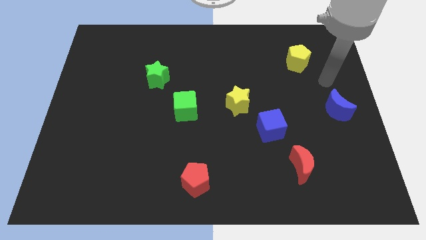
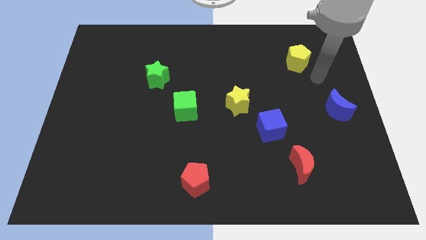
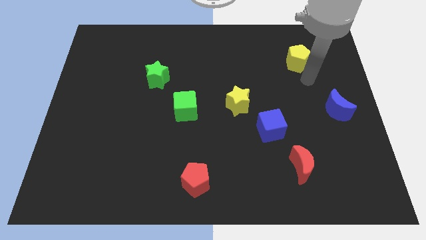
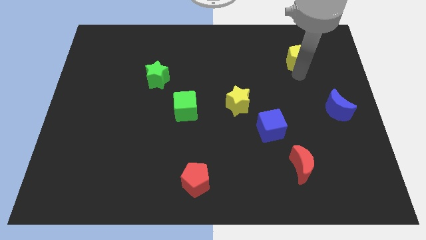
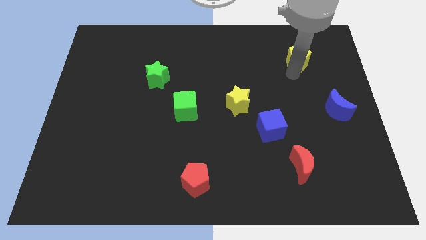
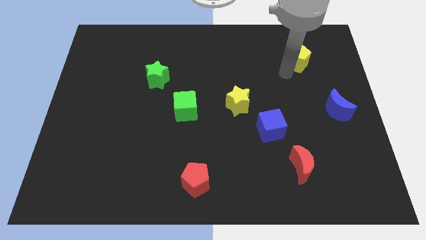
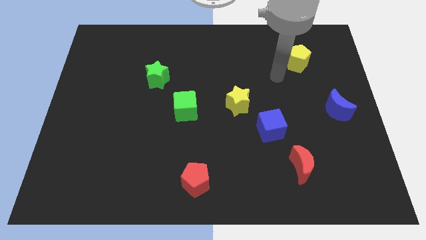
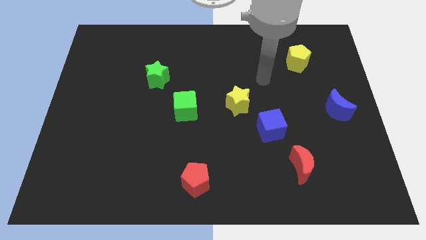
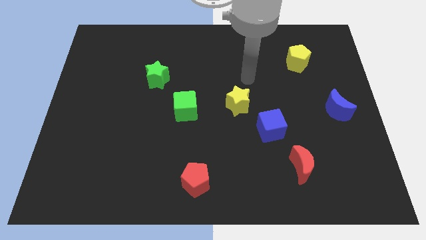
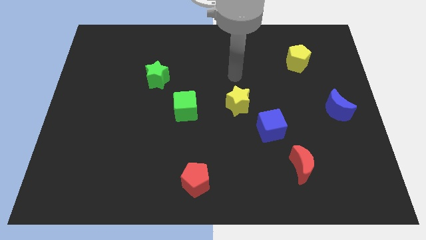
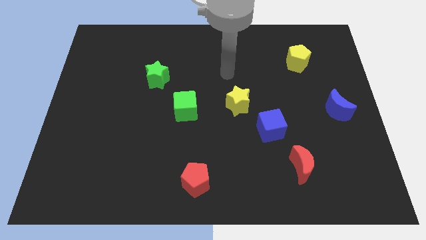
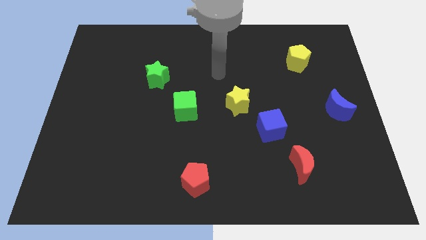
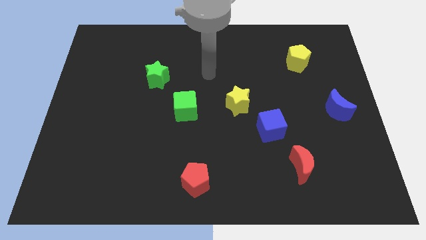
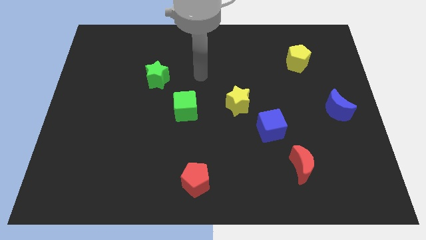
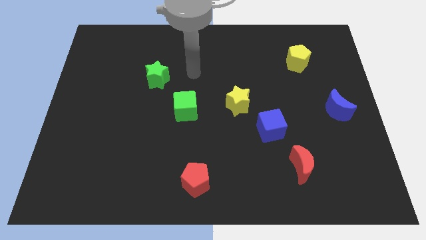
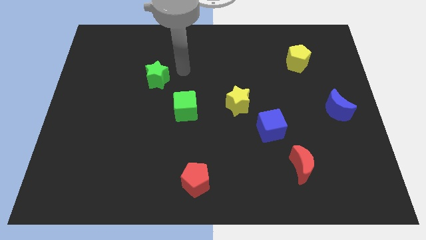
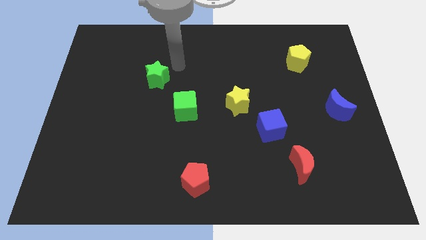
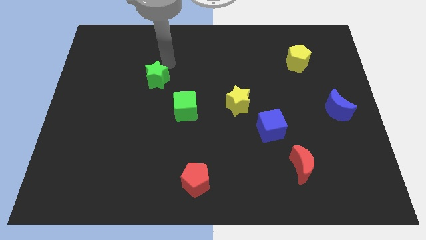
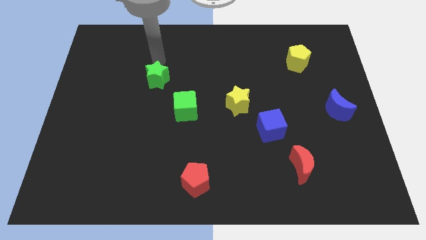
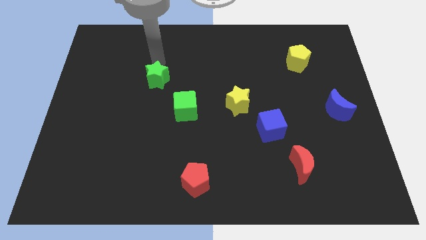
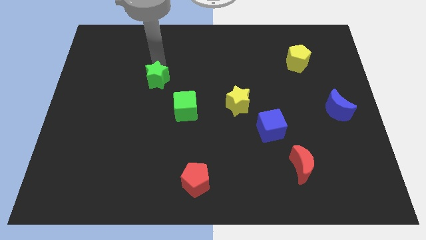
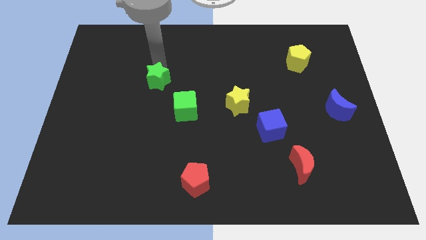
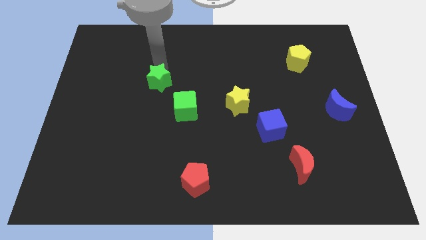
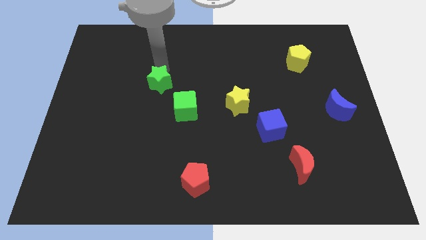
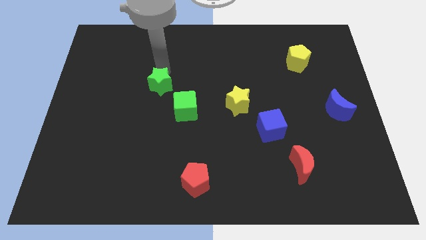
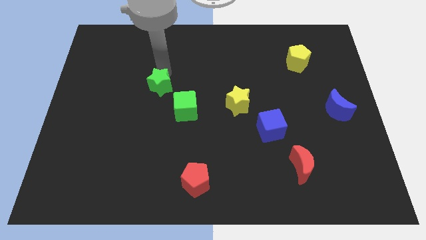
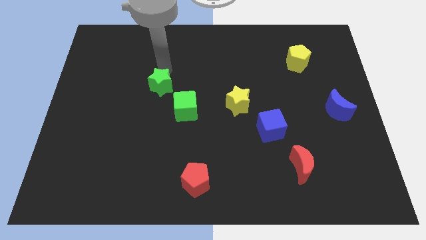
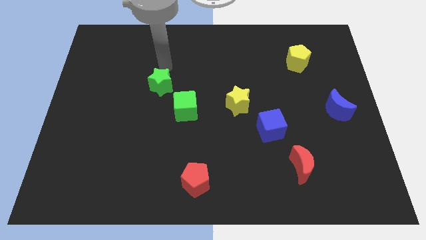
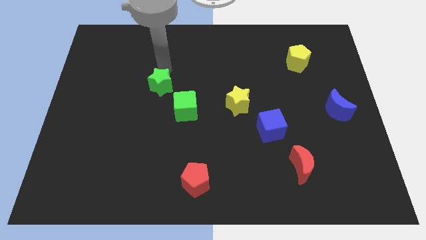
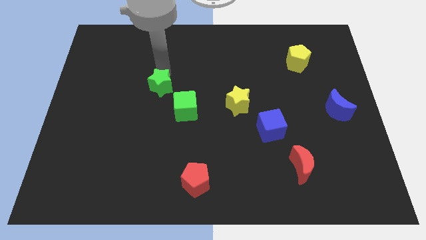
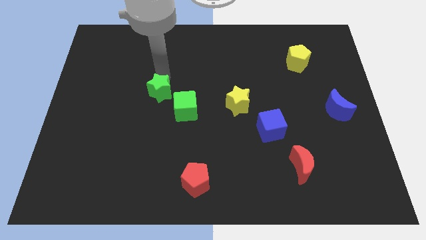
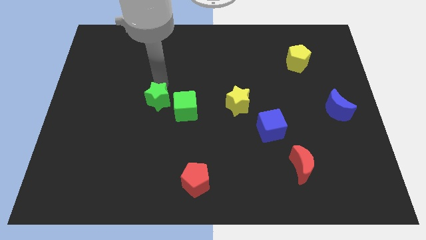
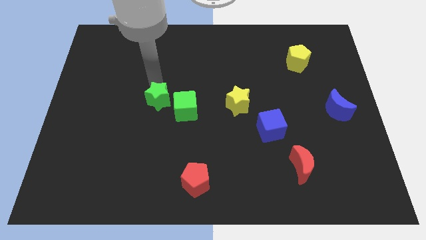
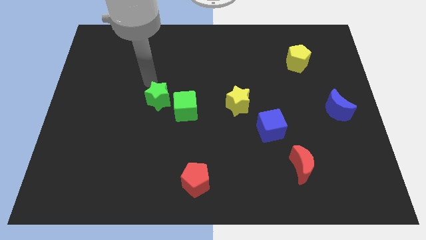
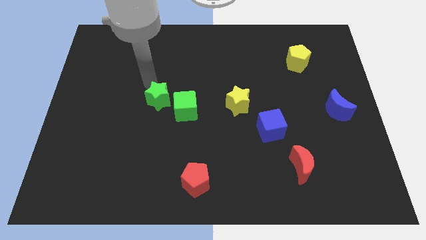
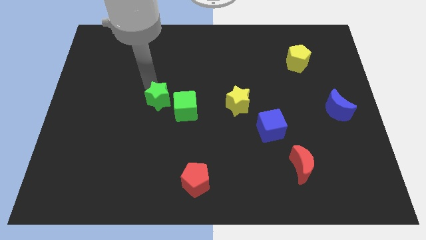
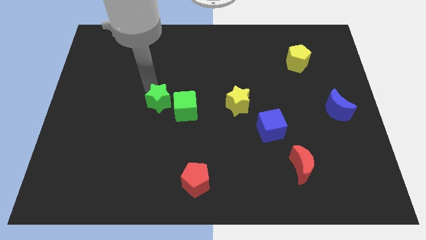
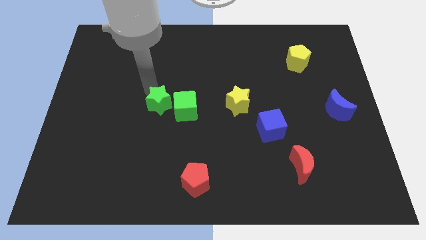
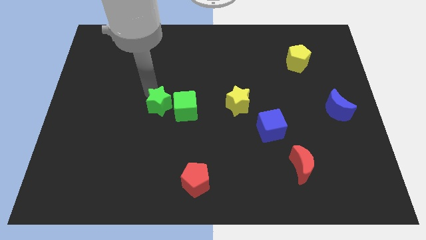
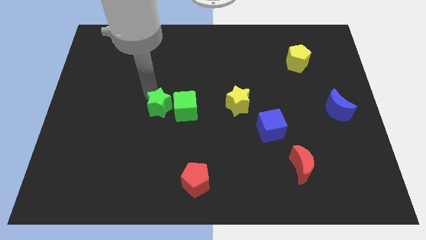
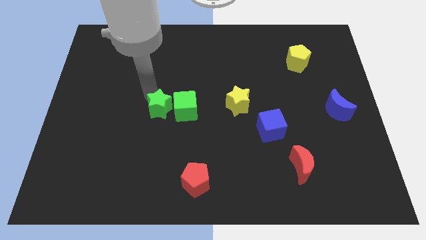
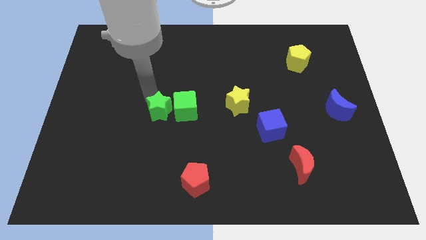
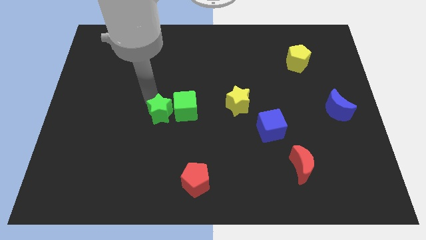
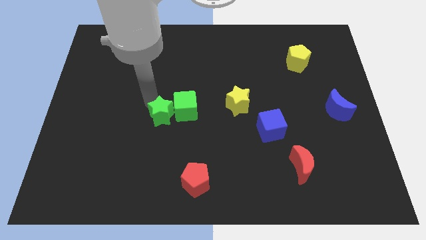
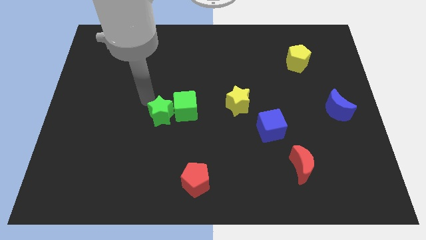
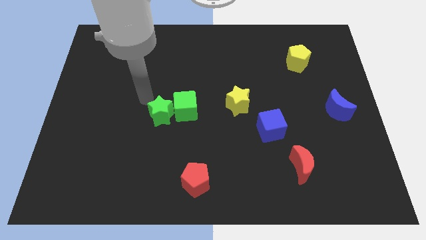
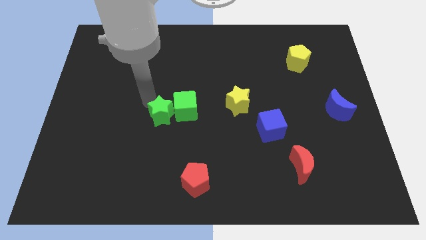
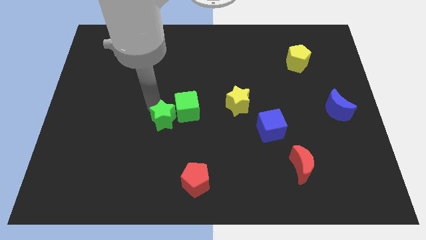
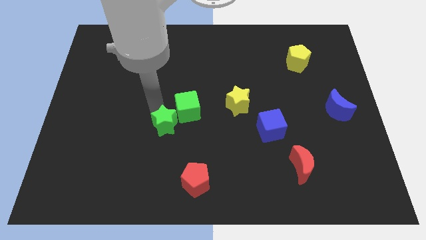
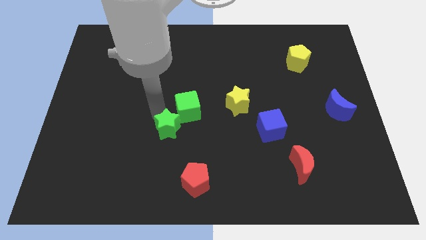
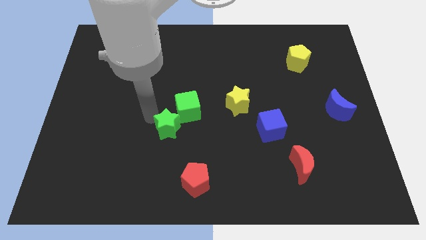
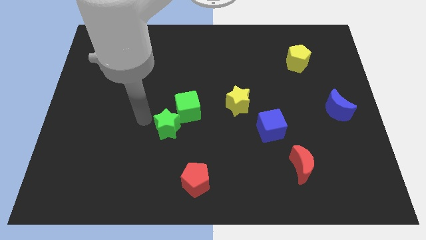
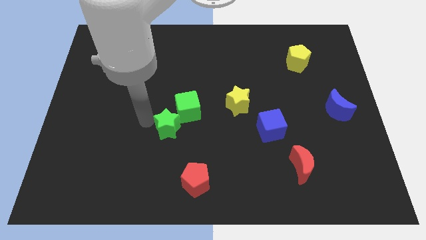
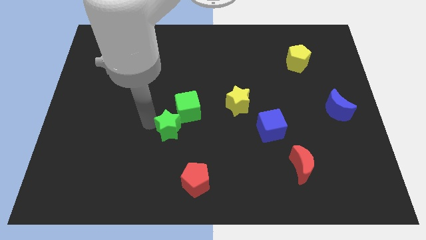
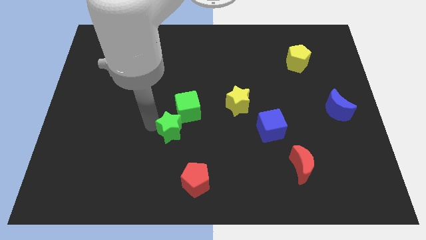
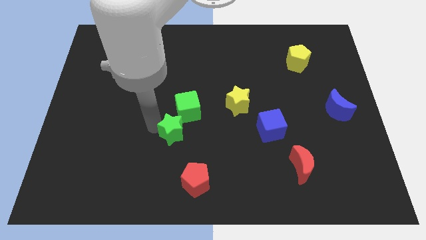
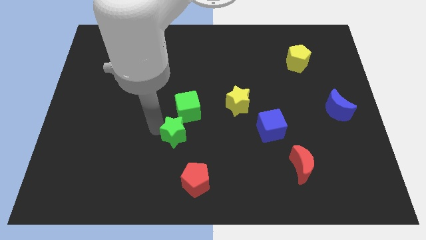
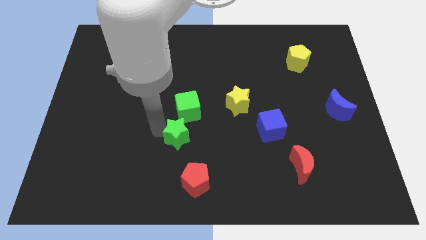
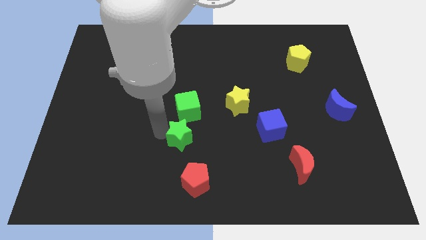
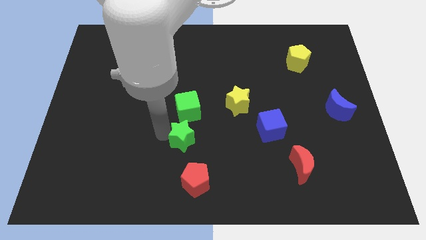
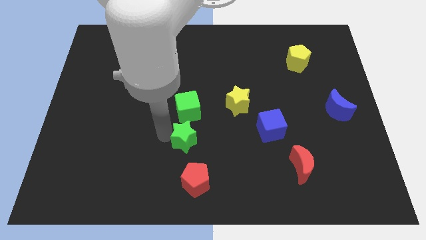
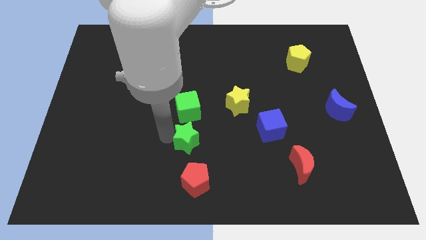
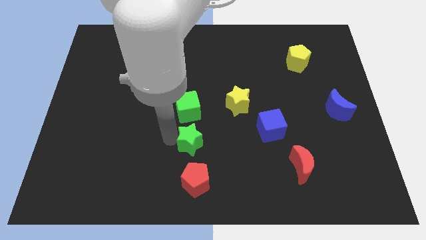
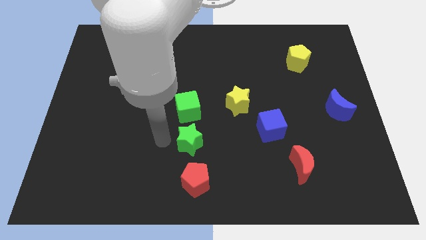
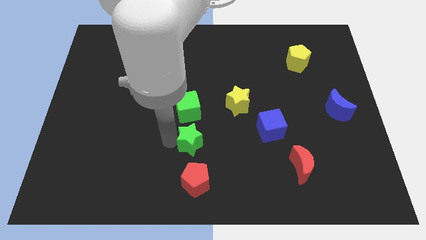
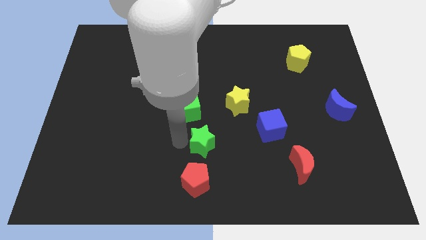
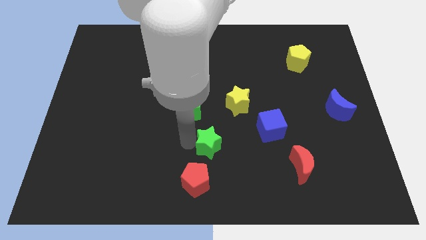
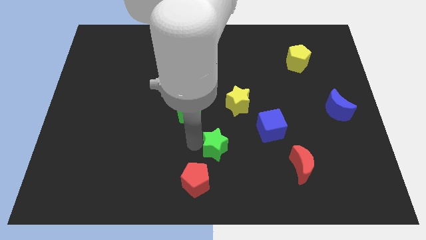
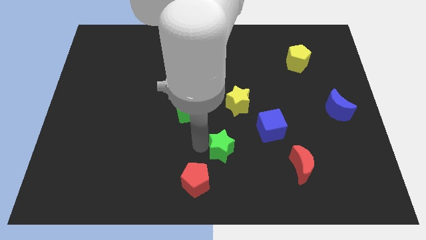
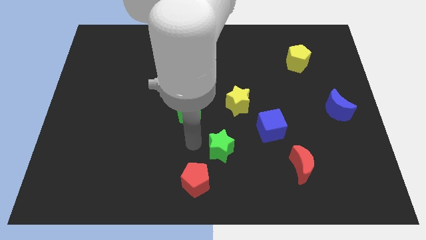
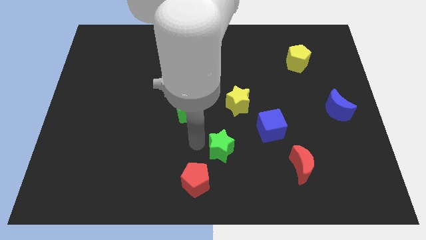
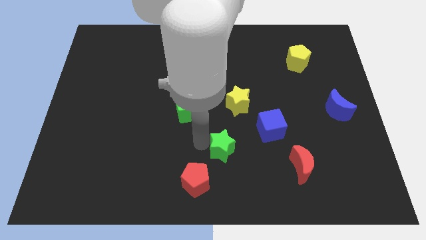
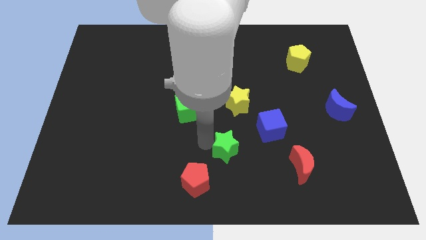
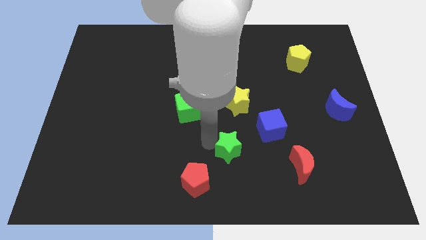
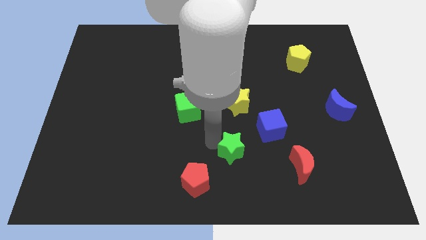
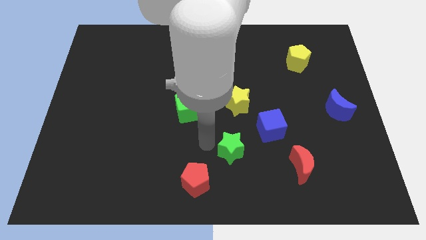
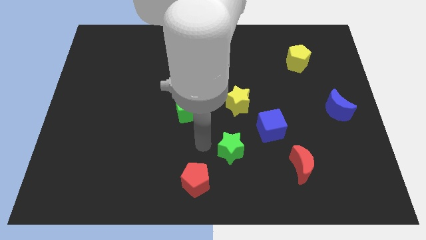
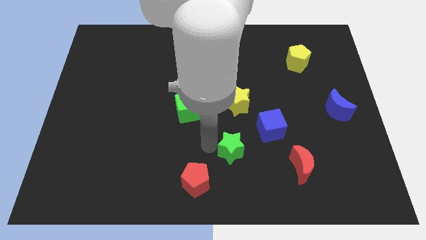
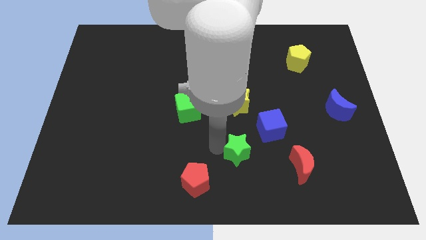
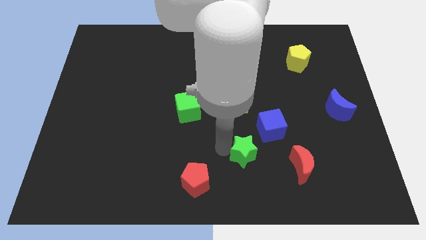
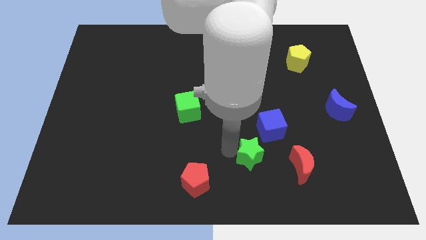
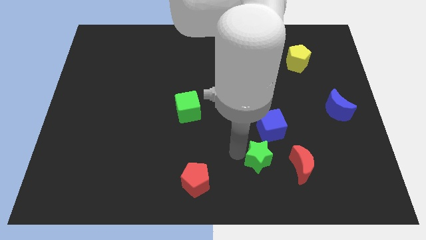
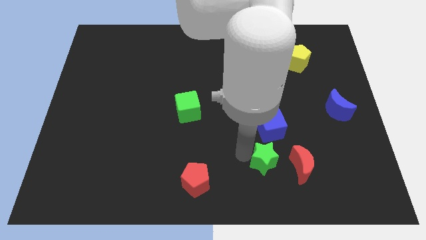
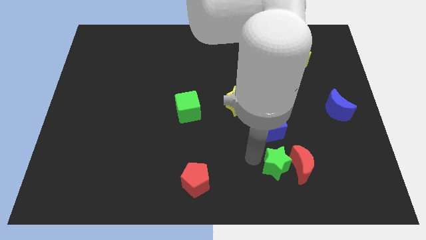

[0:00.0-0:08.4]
move the green star close to the red moon
